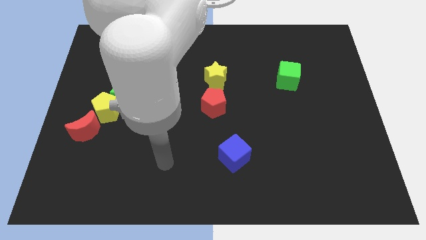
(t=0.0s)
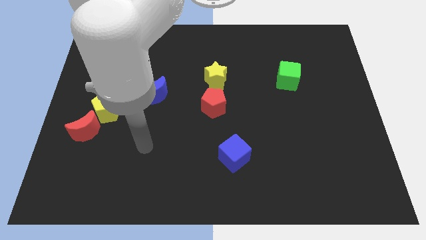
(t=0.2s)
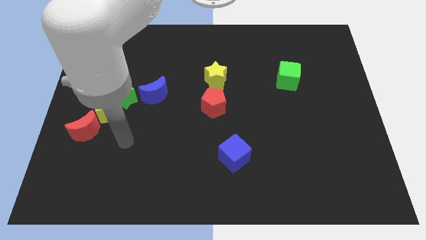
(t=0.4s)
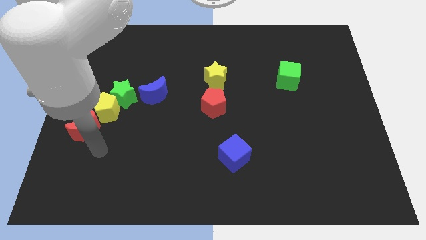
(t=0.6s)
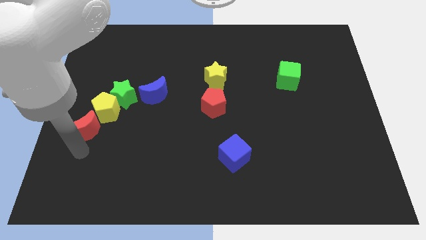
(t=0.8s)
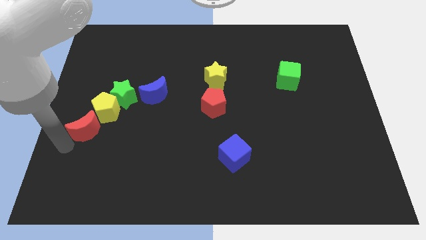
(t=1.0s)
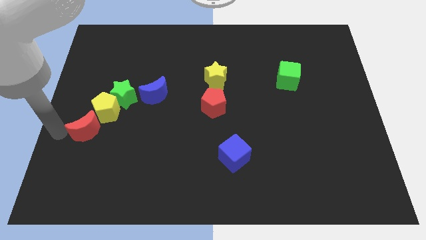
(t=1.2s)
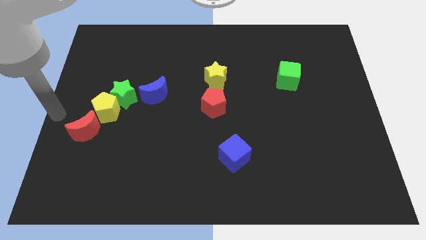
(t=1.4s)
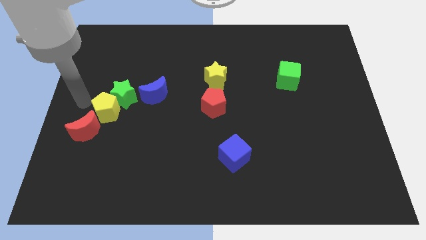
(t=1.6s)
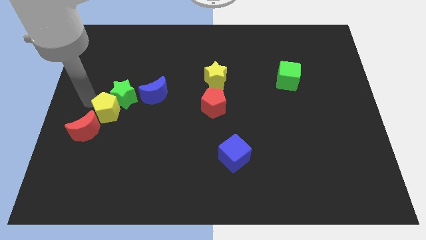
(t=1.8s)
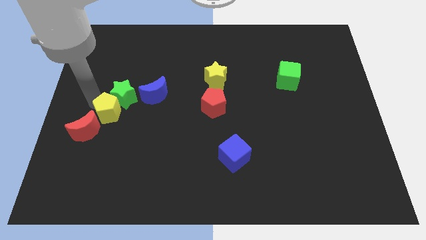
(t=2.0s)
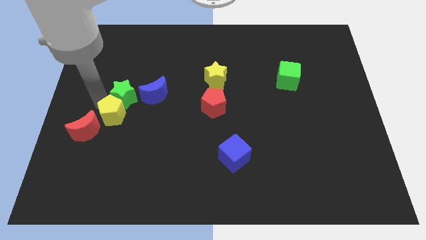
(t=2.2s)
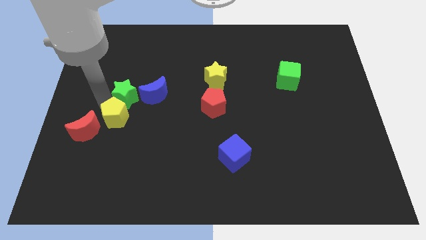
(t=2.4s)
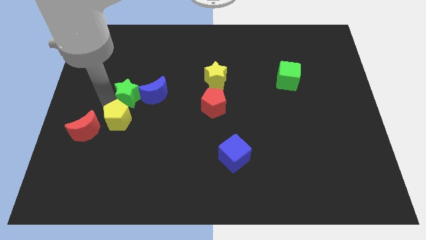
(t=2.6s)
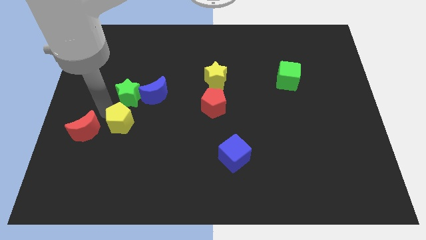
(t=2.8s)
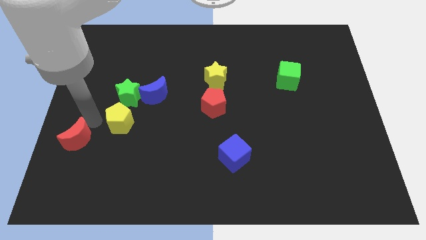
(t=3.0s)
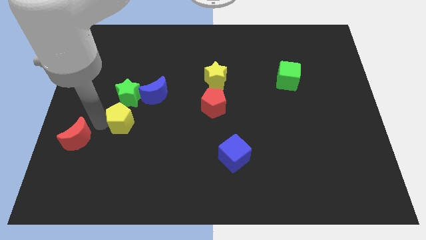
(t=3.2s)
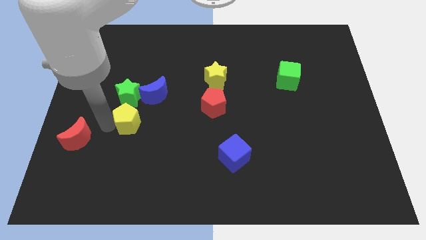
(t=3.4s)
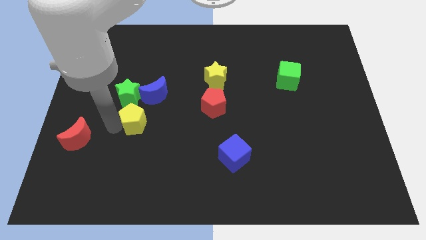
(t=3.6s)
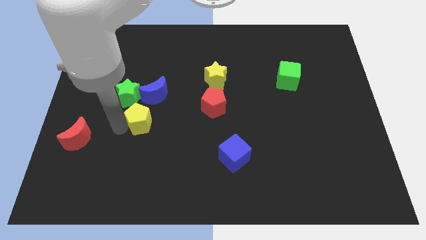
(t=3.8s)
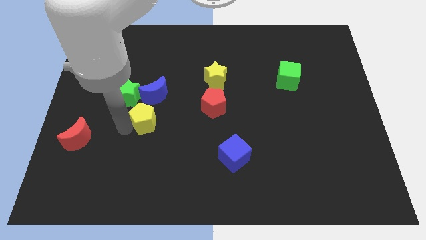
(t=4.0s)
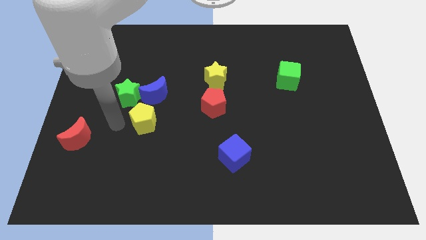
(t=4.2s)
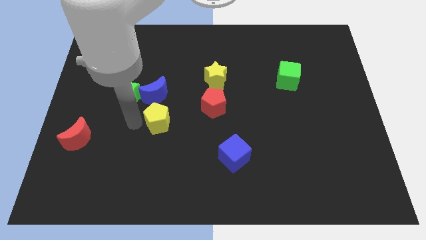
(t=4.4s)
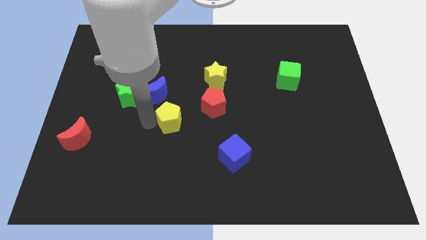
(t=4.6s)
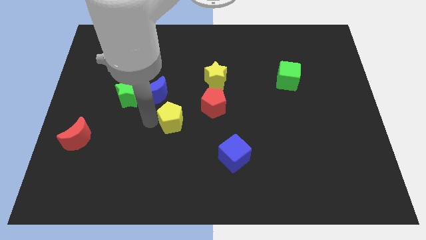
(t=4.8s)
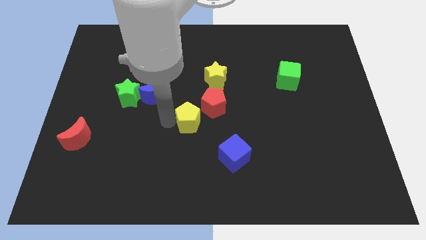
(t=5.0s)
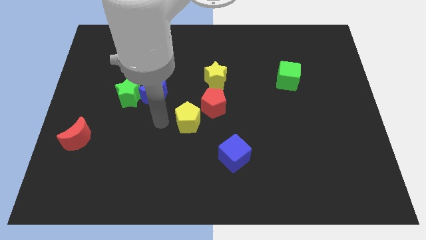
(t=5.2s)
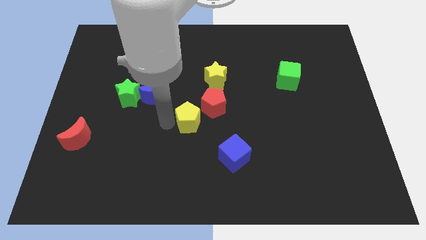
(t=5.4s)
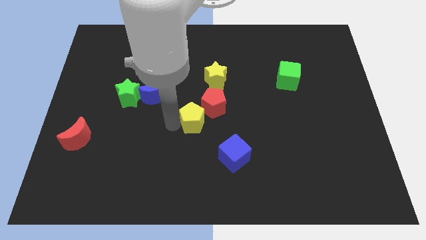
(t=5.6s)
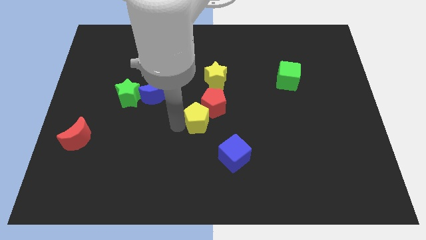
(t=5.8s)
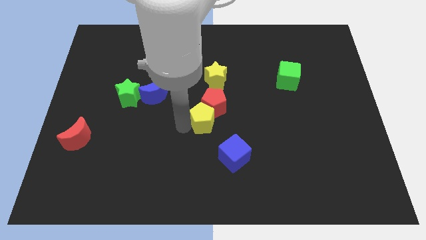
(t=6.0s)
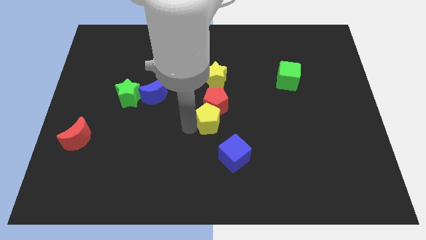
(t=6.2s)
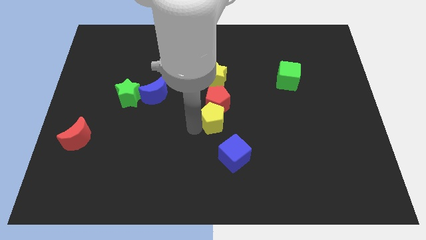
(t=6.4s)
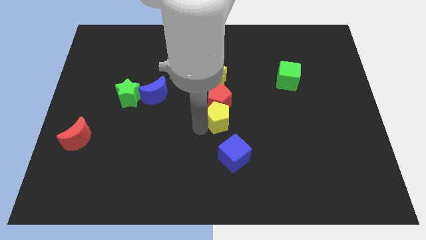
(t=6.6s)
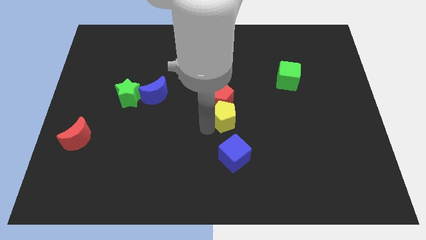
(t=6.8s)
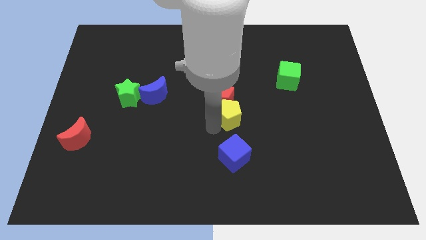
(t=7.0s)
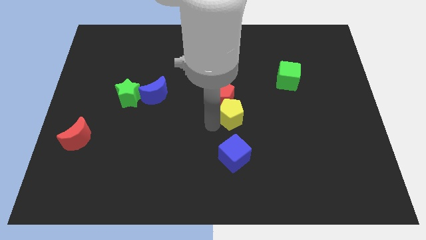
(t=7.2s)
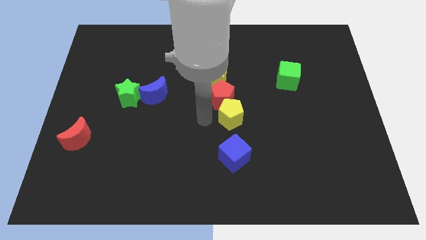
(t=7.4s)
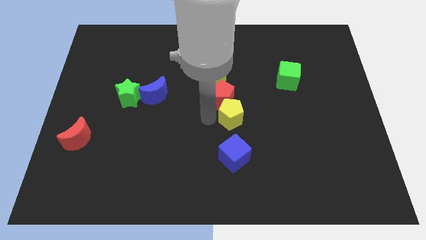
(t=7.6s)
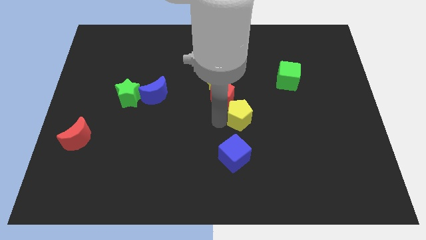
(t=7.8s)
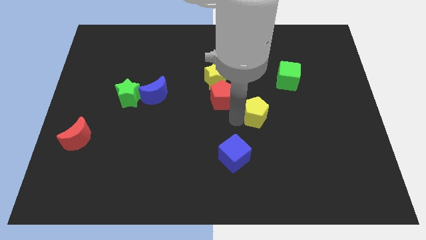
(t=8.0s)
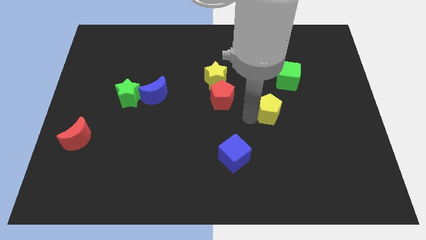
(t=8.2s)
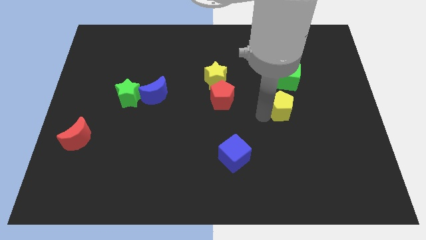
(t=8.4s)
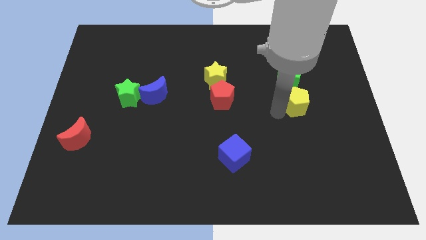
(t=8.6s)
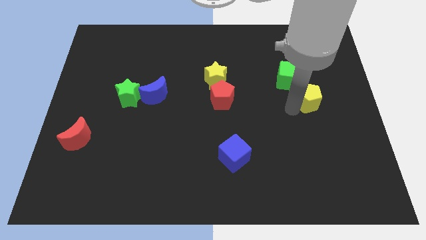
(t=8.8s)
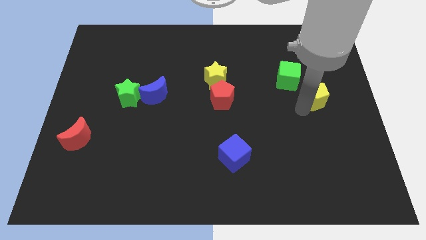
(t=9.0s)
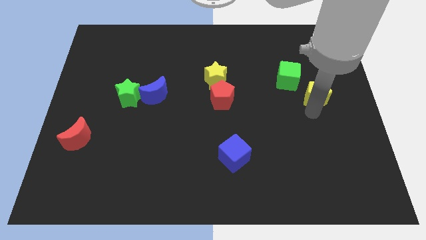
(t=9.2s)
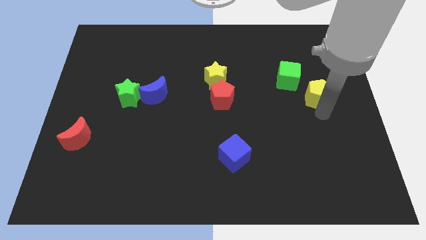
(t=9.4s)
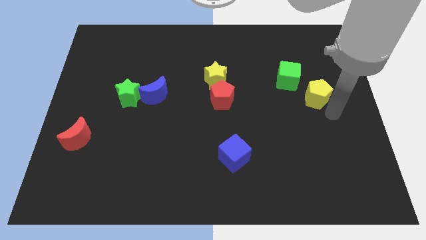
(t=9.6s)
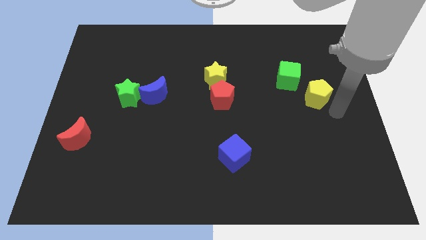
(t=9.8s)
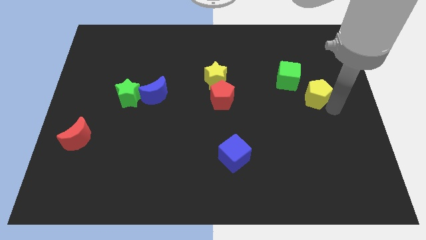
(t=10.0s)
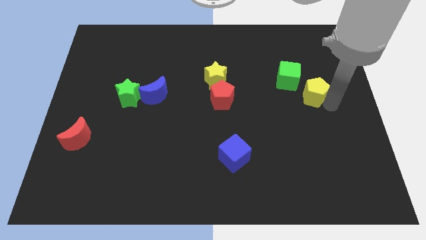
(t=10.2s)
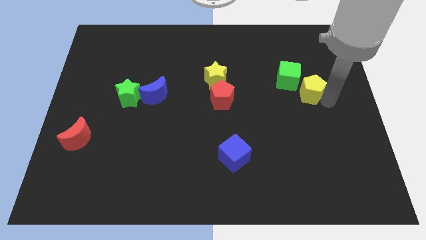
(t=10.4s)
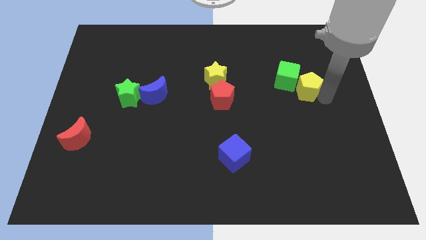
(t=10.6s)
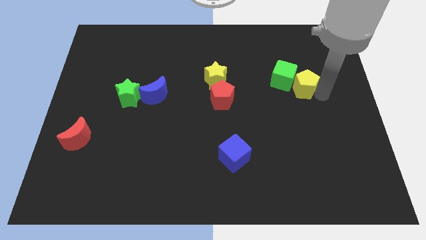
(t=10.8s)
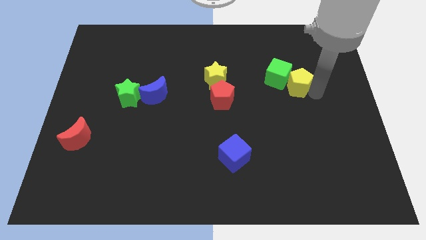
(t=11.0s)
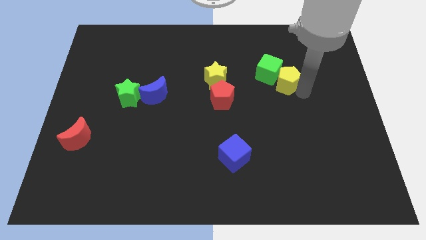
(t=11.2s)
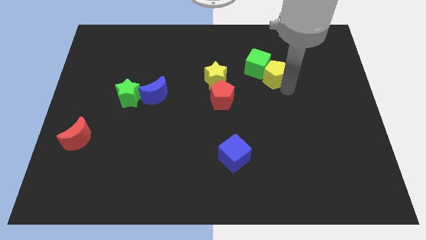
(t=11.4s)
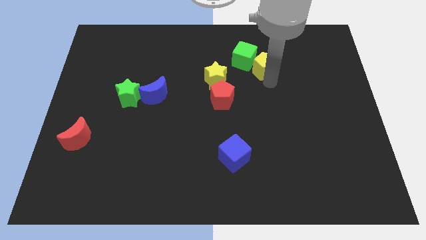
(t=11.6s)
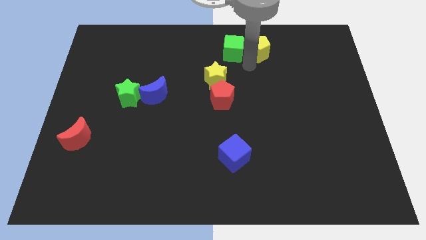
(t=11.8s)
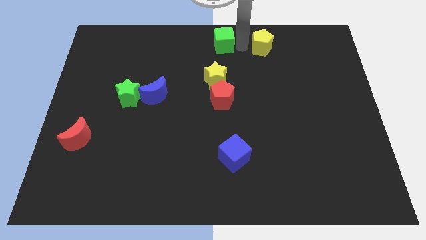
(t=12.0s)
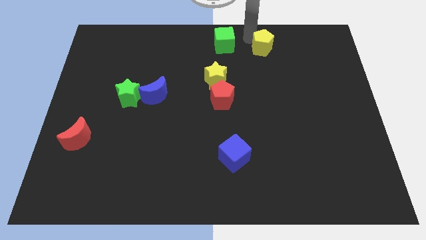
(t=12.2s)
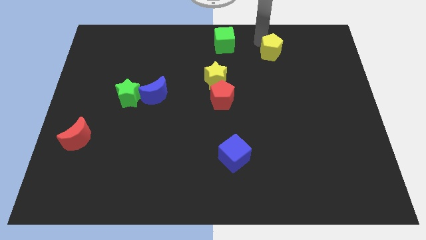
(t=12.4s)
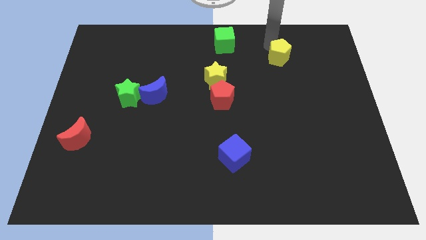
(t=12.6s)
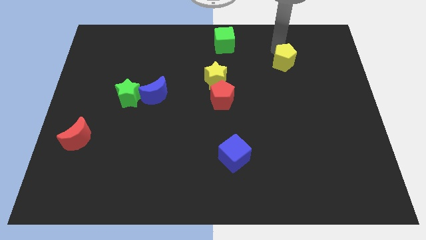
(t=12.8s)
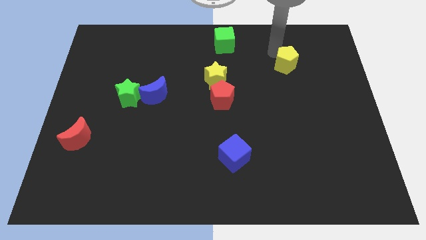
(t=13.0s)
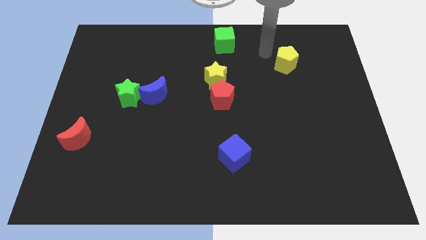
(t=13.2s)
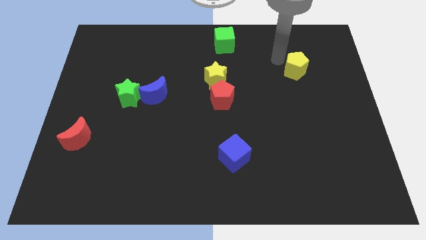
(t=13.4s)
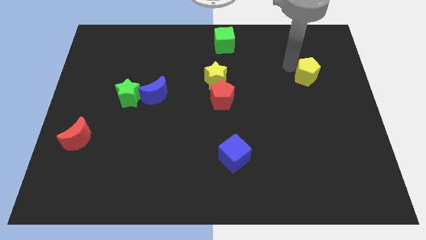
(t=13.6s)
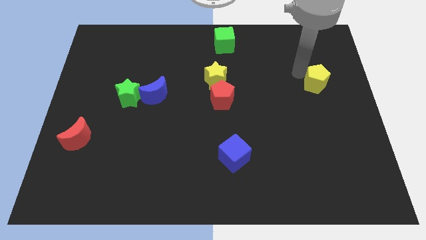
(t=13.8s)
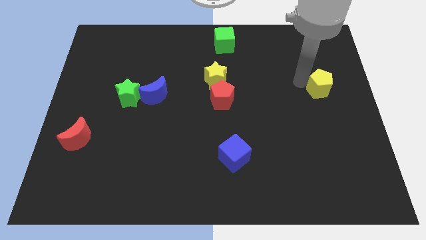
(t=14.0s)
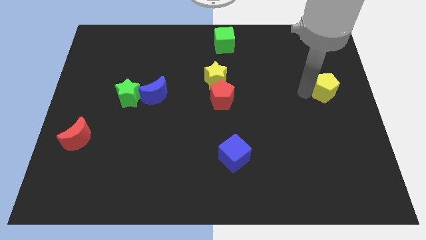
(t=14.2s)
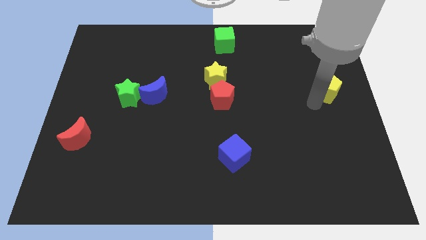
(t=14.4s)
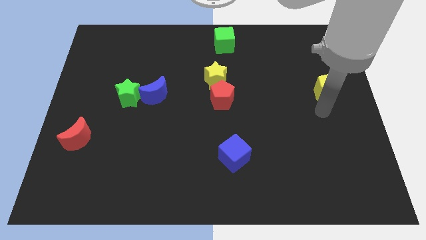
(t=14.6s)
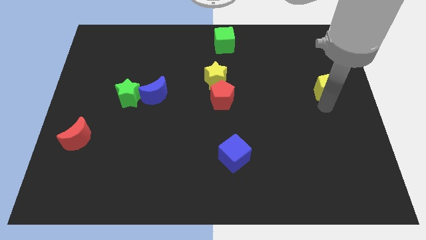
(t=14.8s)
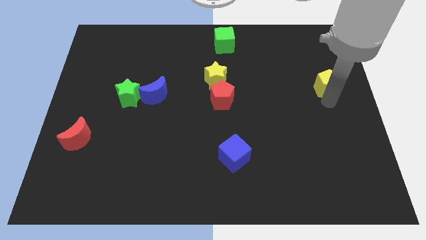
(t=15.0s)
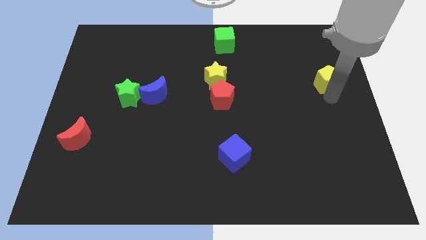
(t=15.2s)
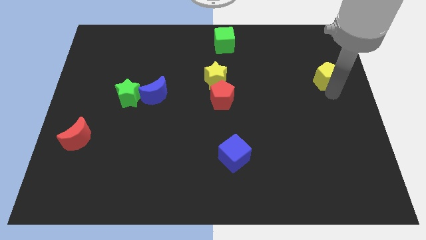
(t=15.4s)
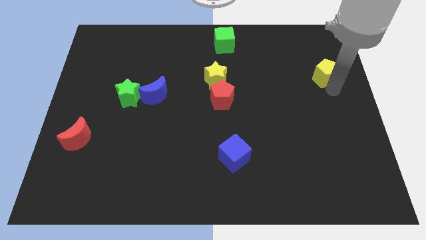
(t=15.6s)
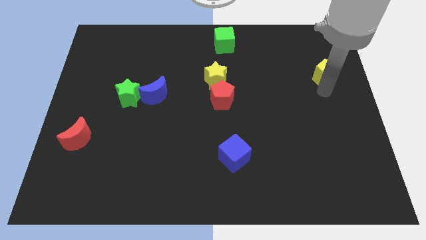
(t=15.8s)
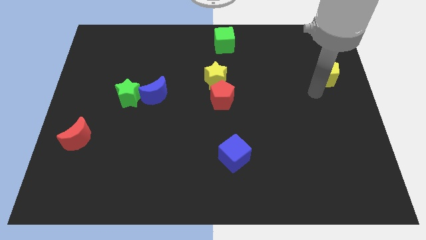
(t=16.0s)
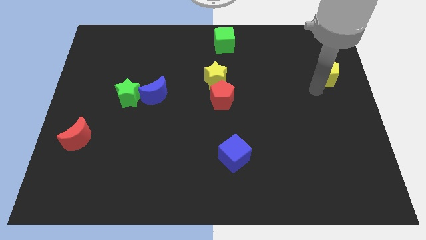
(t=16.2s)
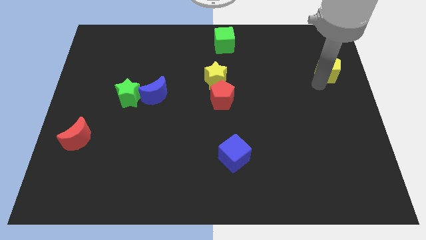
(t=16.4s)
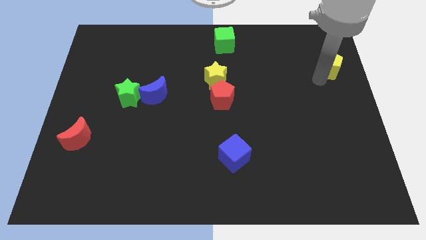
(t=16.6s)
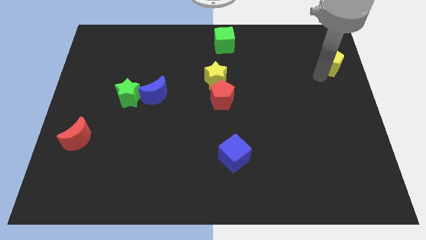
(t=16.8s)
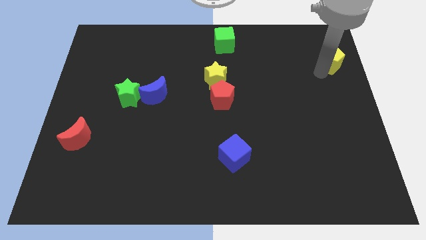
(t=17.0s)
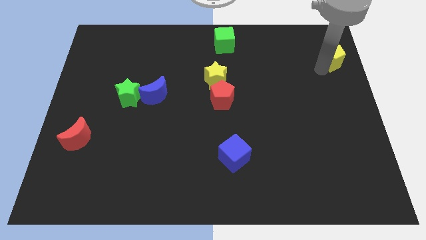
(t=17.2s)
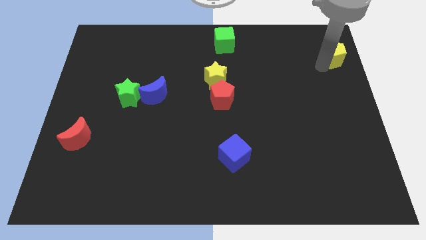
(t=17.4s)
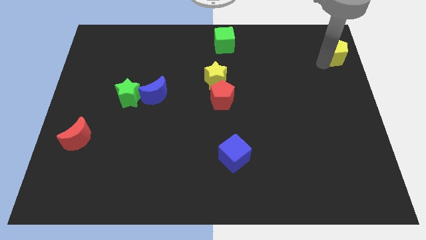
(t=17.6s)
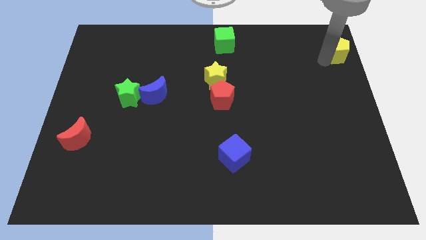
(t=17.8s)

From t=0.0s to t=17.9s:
put the yellow pentagon to the upper right corner
